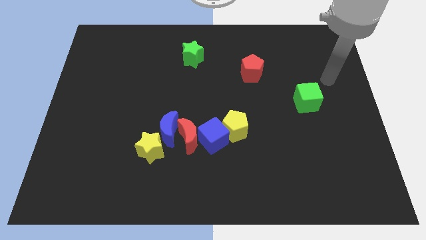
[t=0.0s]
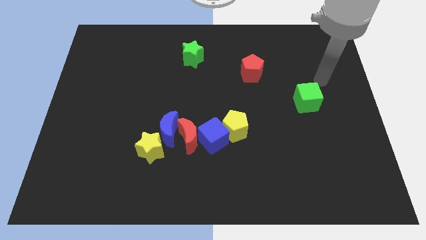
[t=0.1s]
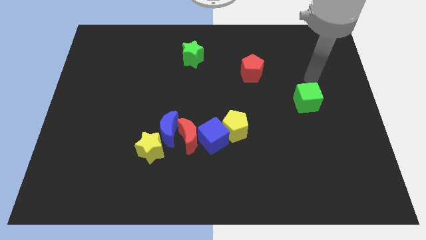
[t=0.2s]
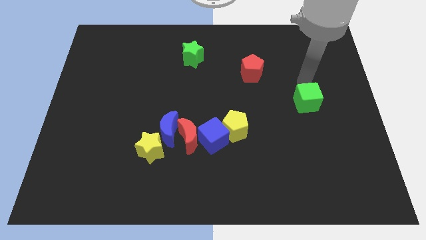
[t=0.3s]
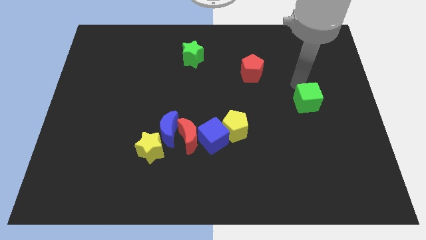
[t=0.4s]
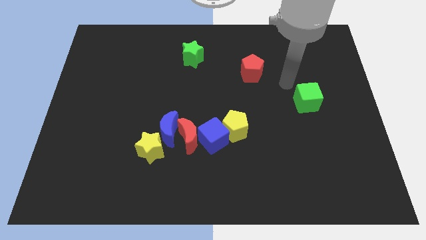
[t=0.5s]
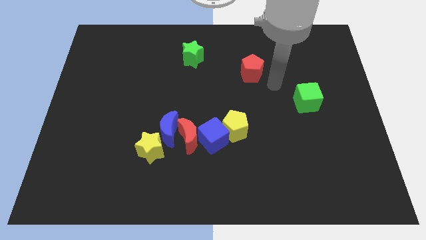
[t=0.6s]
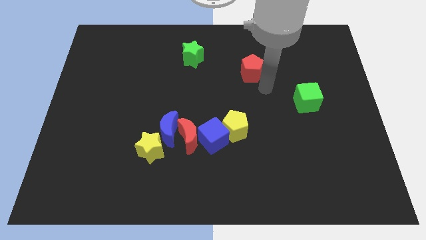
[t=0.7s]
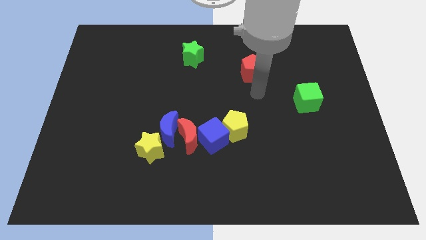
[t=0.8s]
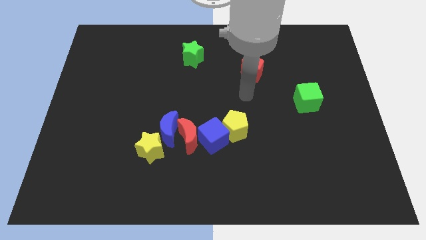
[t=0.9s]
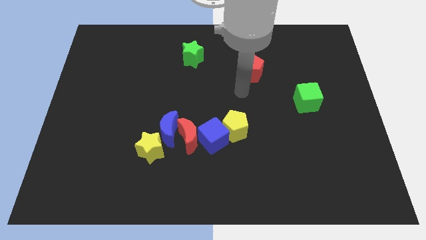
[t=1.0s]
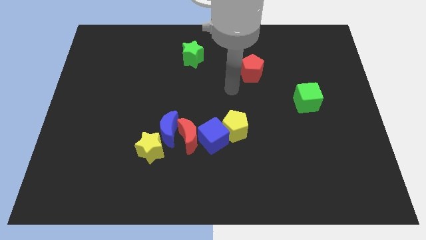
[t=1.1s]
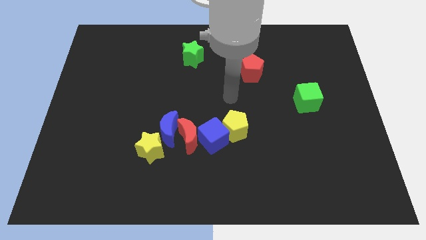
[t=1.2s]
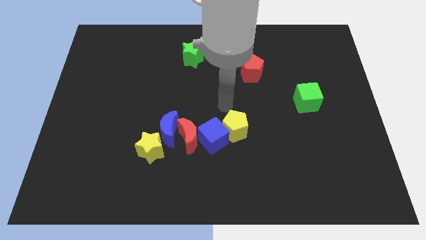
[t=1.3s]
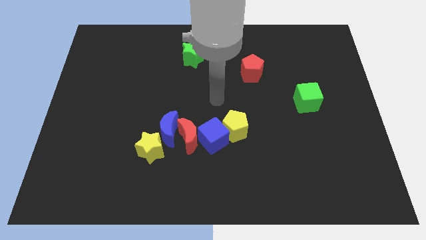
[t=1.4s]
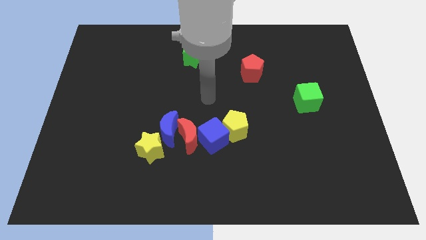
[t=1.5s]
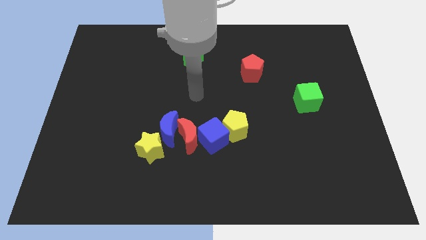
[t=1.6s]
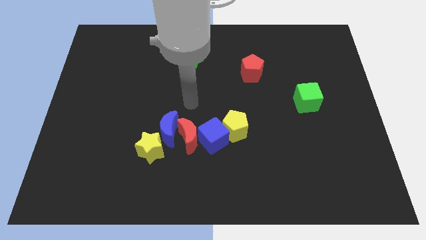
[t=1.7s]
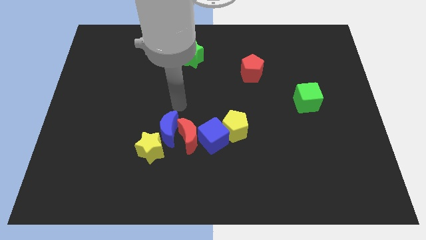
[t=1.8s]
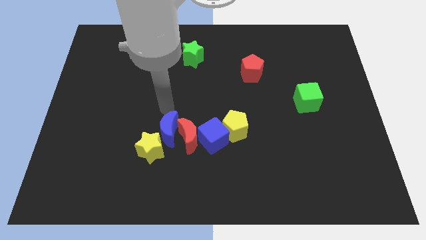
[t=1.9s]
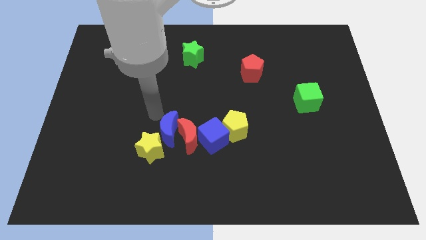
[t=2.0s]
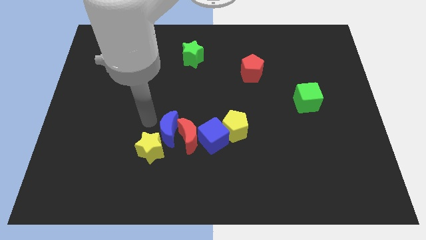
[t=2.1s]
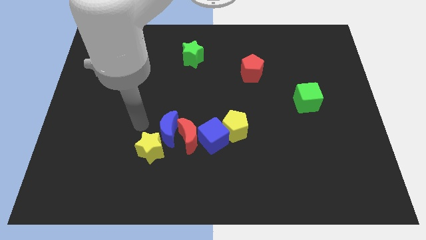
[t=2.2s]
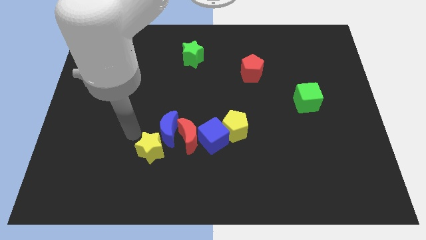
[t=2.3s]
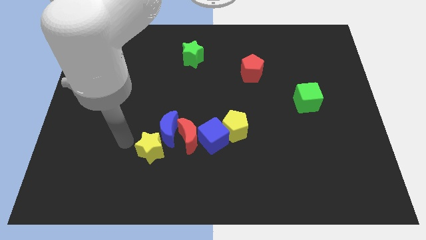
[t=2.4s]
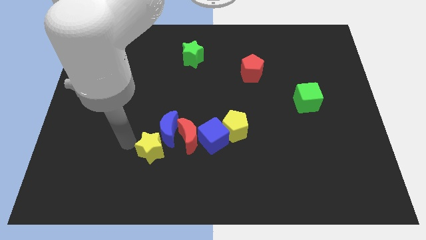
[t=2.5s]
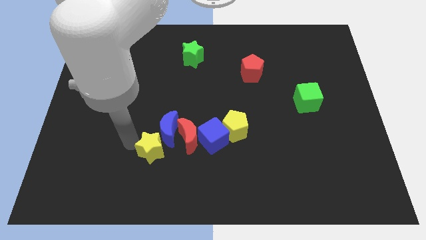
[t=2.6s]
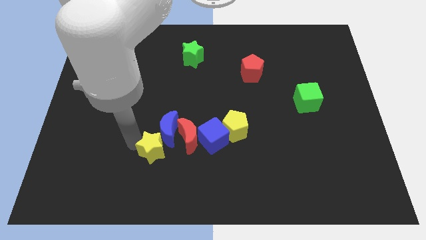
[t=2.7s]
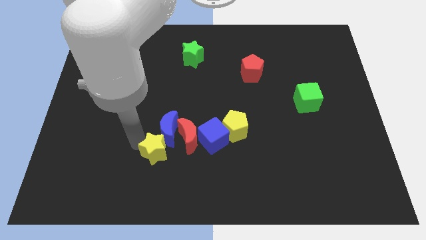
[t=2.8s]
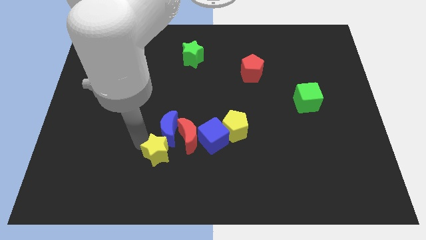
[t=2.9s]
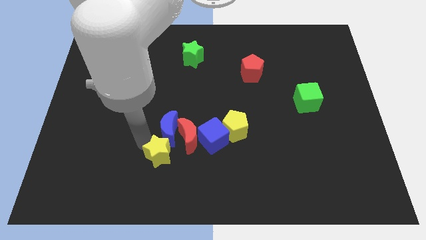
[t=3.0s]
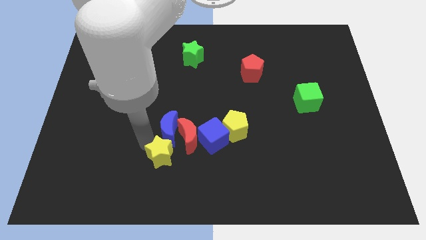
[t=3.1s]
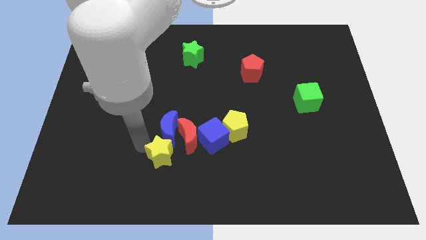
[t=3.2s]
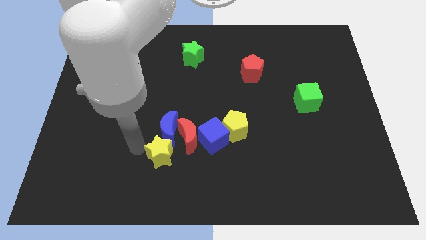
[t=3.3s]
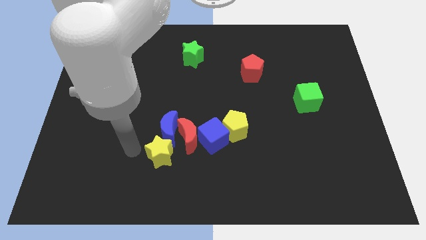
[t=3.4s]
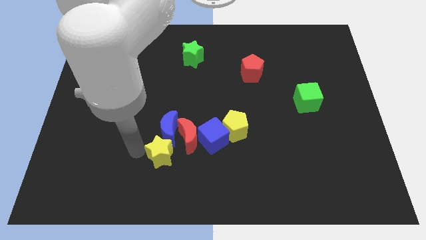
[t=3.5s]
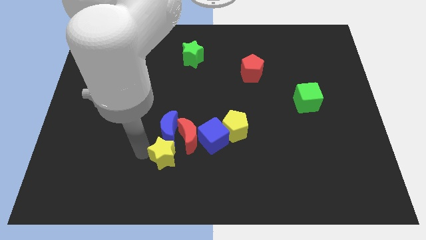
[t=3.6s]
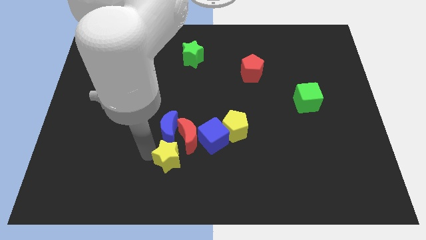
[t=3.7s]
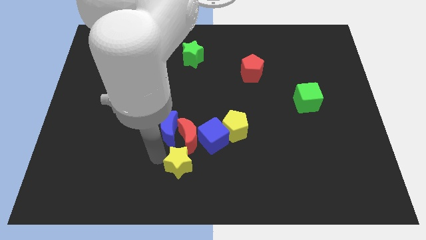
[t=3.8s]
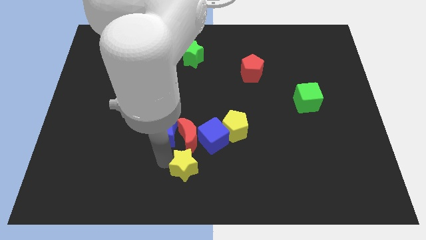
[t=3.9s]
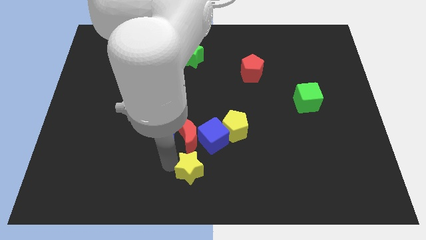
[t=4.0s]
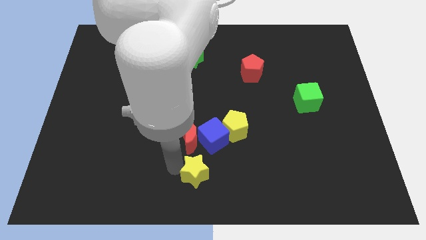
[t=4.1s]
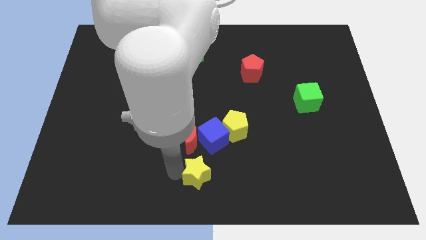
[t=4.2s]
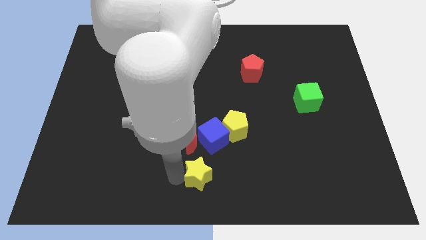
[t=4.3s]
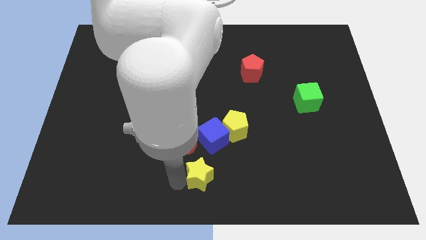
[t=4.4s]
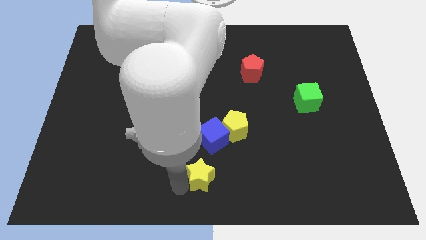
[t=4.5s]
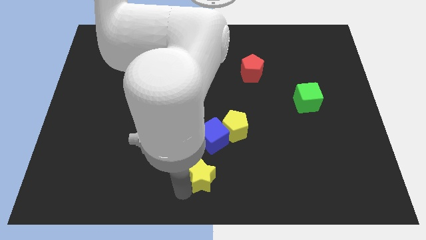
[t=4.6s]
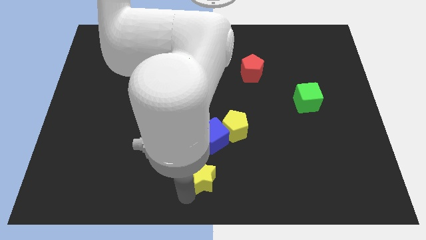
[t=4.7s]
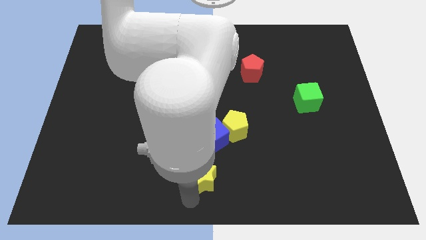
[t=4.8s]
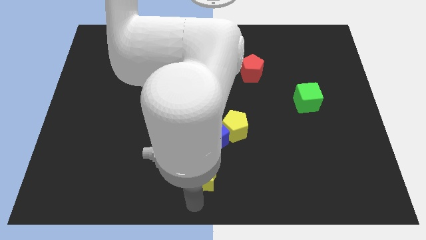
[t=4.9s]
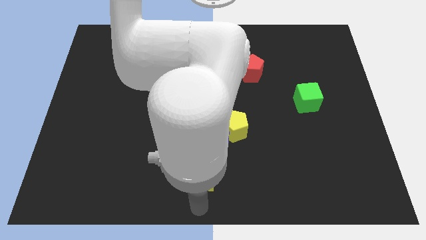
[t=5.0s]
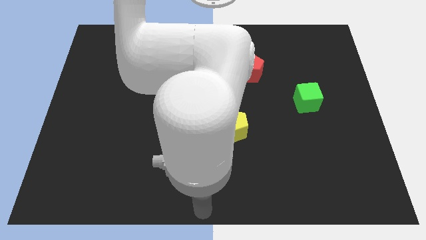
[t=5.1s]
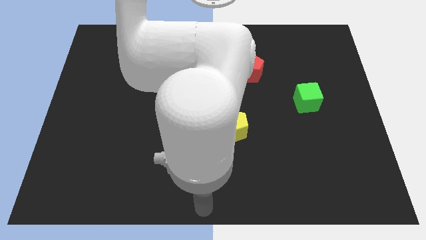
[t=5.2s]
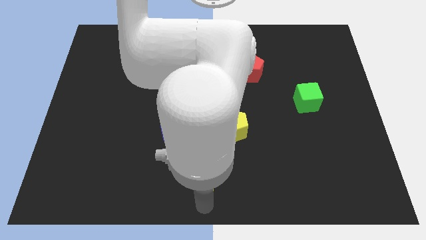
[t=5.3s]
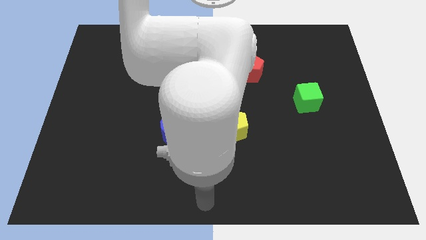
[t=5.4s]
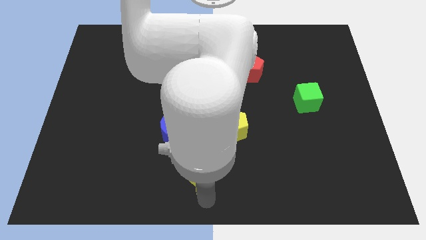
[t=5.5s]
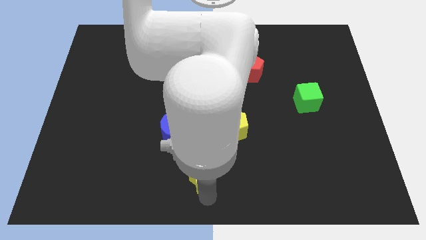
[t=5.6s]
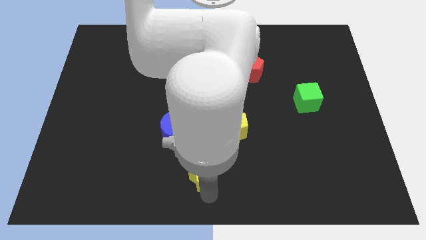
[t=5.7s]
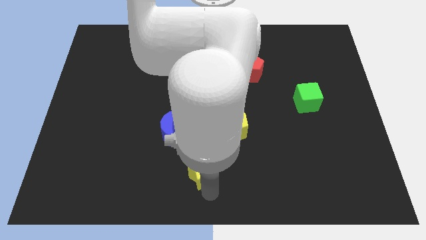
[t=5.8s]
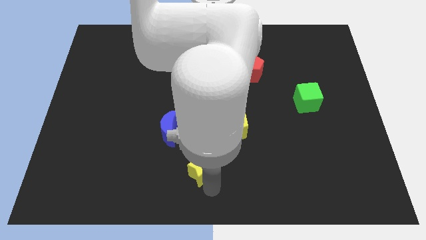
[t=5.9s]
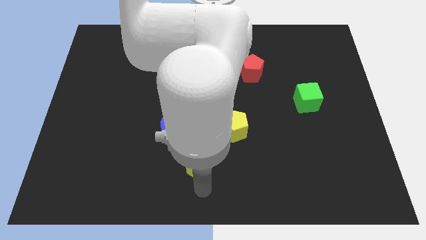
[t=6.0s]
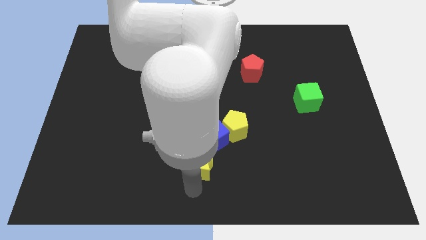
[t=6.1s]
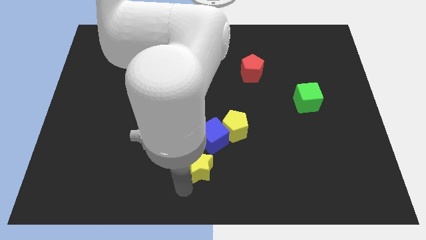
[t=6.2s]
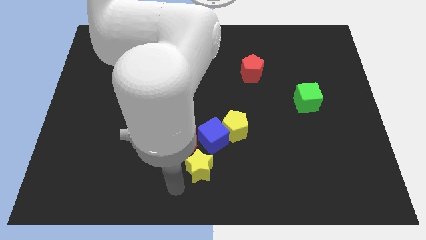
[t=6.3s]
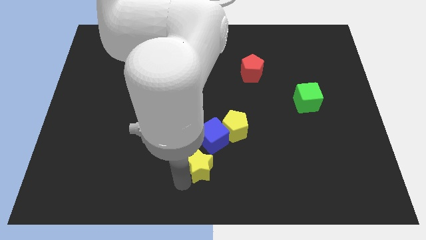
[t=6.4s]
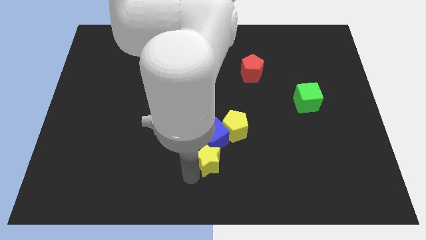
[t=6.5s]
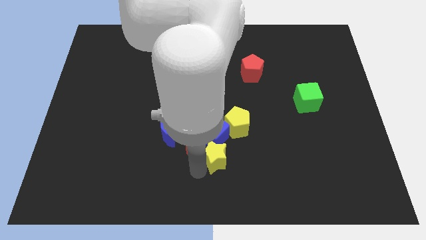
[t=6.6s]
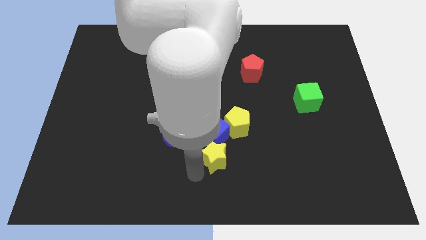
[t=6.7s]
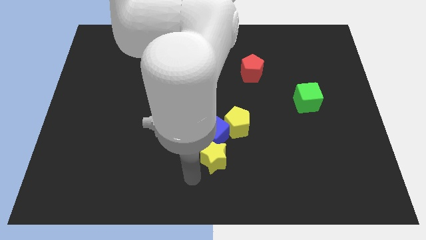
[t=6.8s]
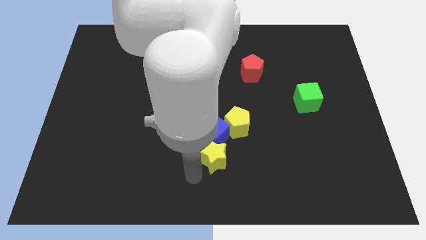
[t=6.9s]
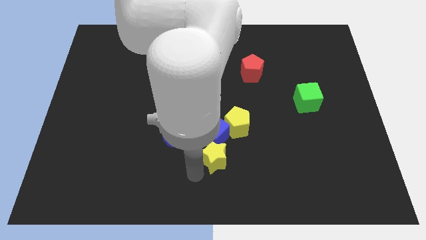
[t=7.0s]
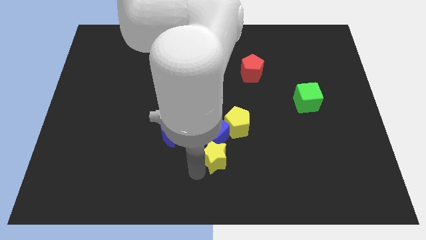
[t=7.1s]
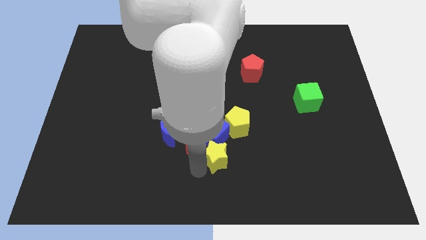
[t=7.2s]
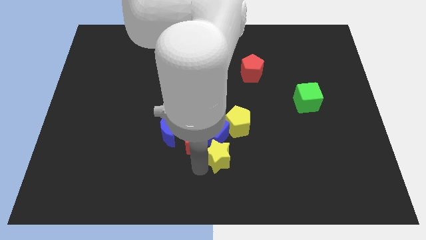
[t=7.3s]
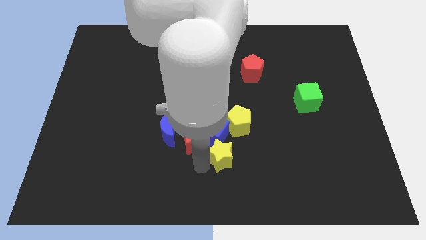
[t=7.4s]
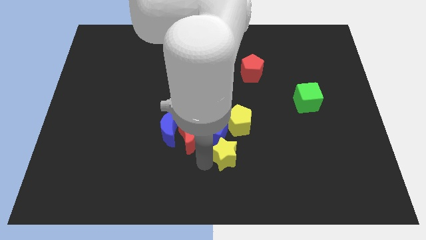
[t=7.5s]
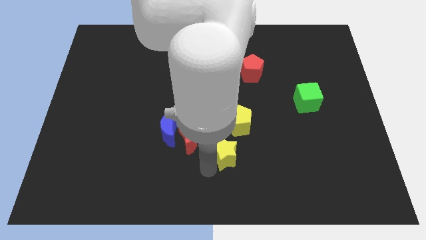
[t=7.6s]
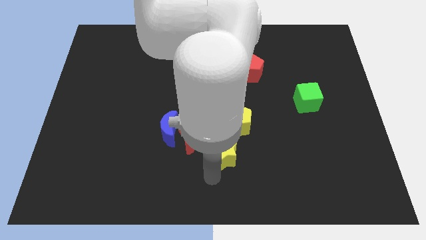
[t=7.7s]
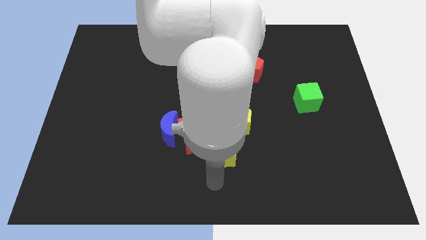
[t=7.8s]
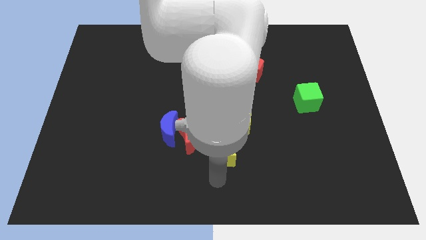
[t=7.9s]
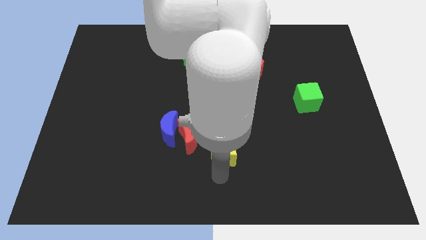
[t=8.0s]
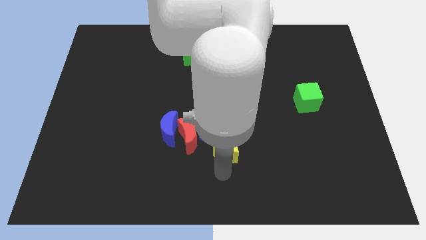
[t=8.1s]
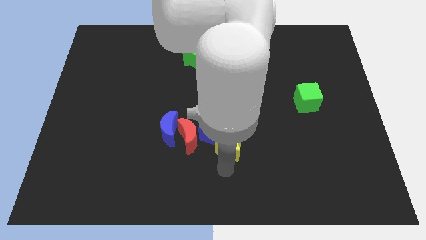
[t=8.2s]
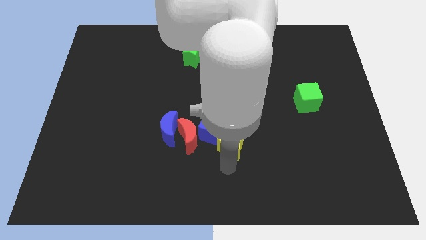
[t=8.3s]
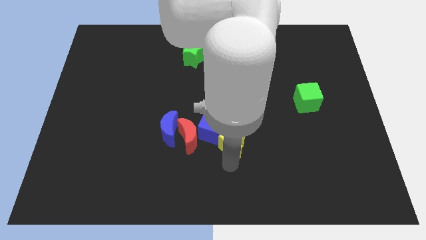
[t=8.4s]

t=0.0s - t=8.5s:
put the yellow star to the yellow pentagon
